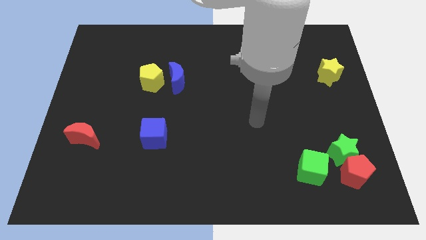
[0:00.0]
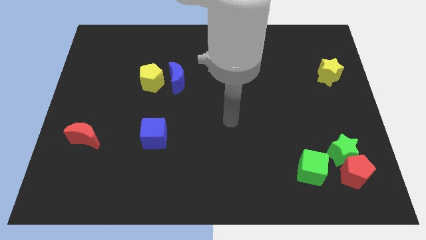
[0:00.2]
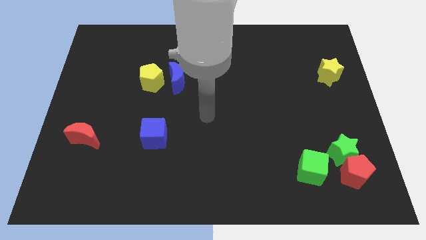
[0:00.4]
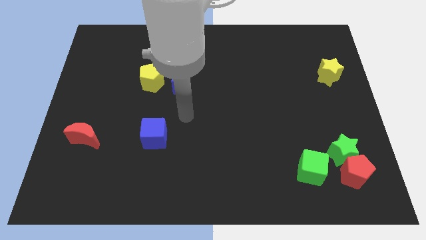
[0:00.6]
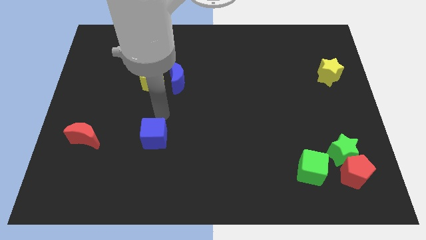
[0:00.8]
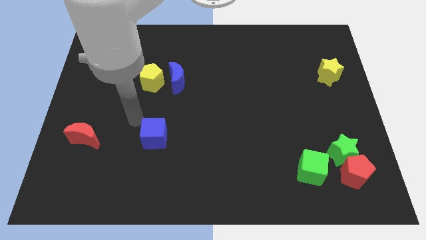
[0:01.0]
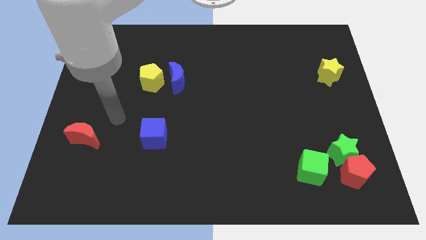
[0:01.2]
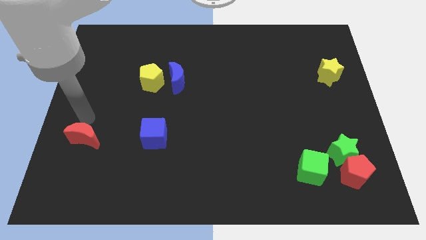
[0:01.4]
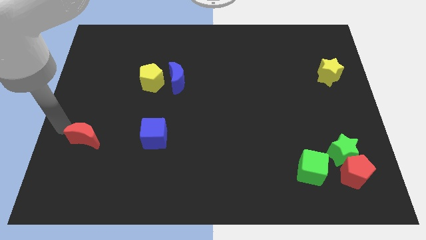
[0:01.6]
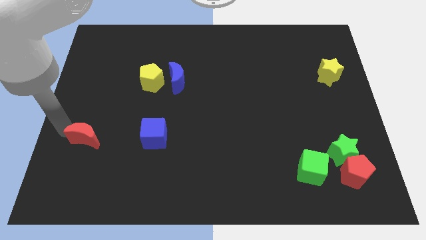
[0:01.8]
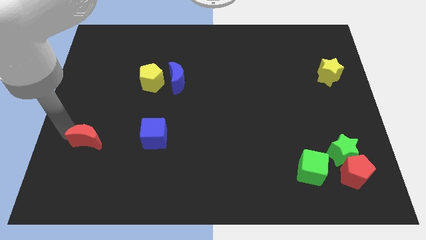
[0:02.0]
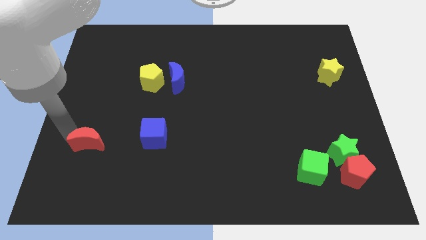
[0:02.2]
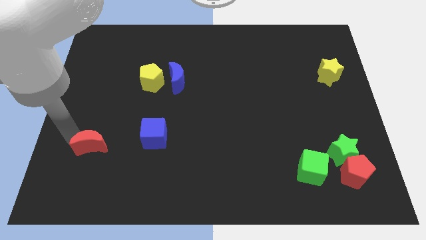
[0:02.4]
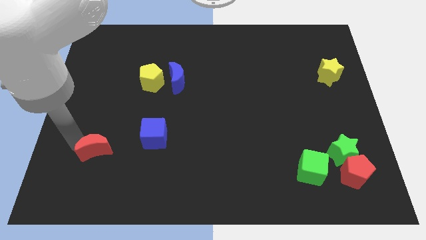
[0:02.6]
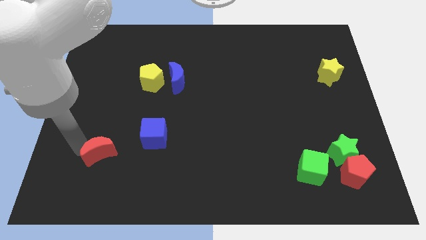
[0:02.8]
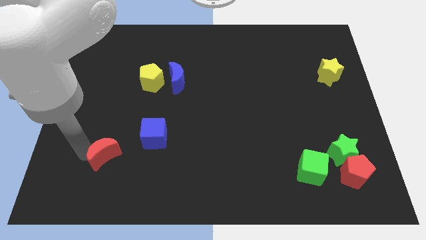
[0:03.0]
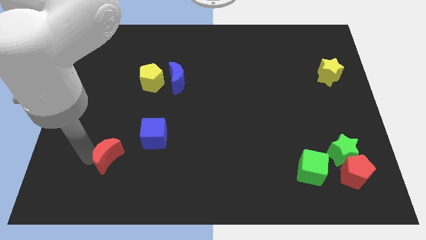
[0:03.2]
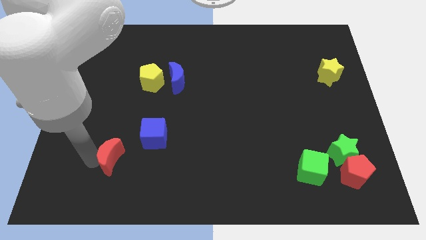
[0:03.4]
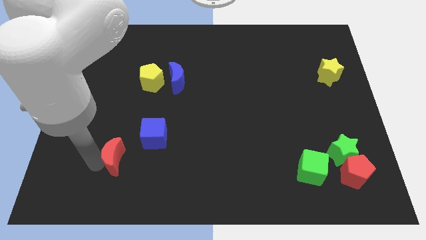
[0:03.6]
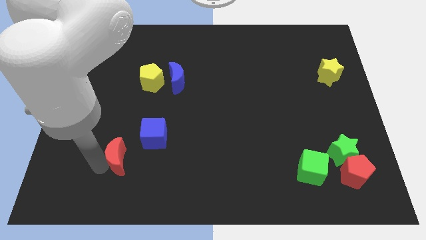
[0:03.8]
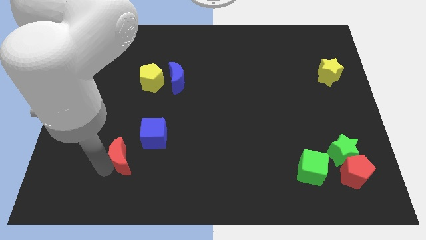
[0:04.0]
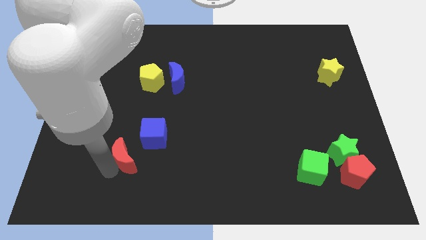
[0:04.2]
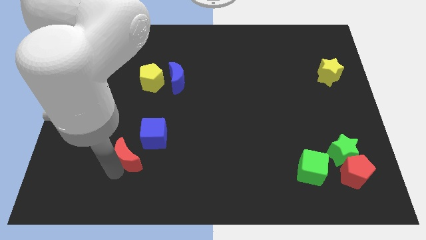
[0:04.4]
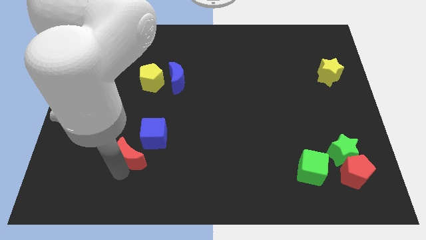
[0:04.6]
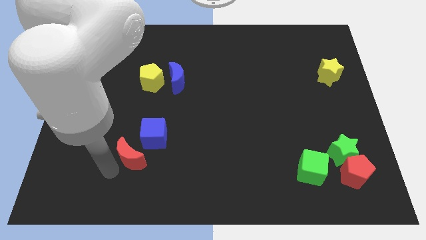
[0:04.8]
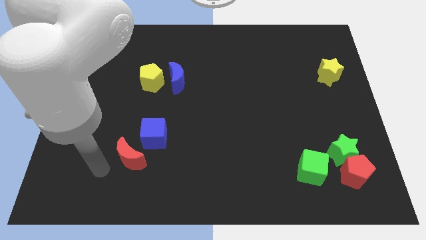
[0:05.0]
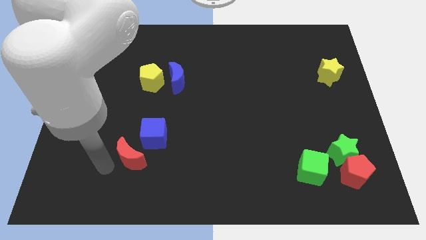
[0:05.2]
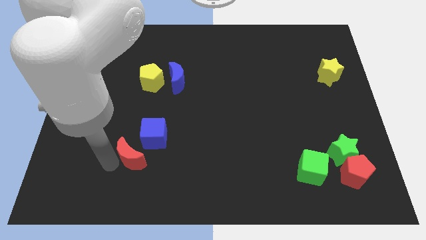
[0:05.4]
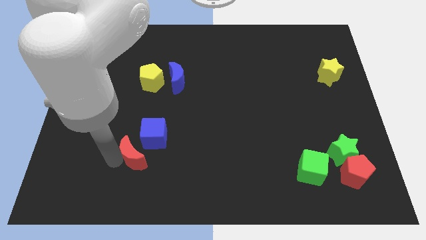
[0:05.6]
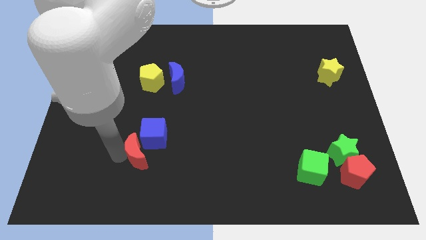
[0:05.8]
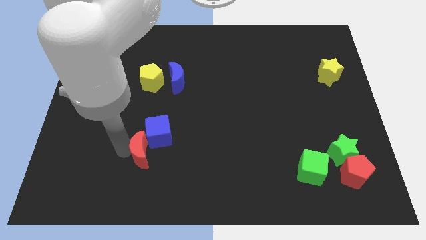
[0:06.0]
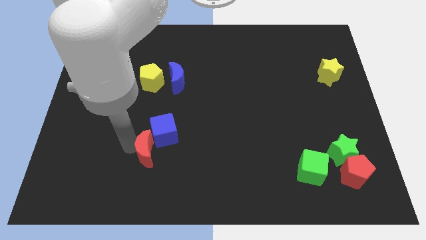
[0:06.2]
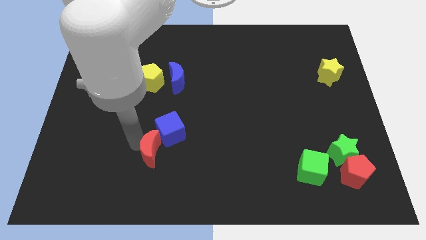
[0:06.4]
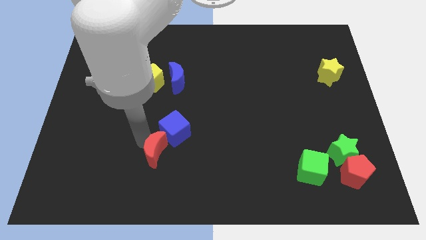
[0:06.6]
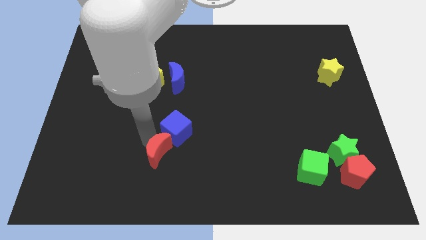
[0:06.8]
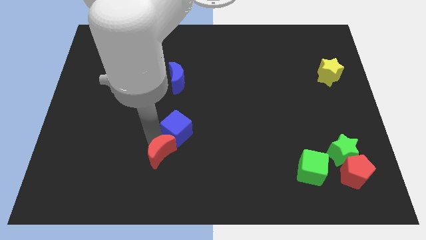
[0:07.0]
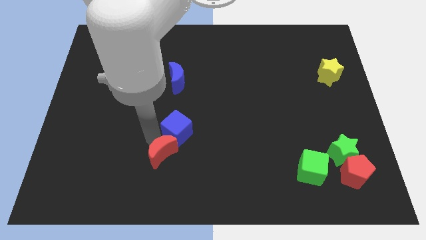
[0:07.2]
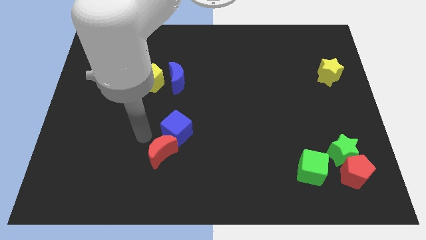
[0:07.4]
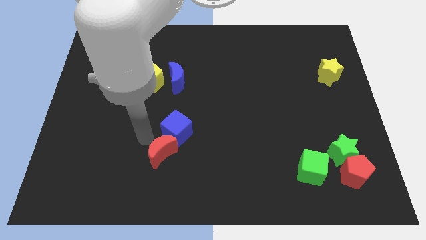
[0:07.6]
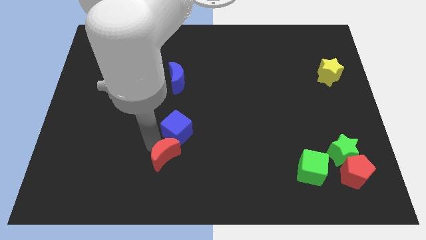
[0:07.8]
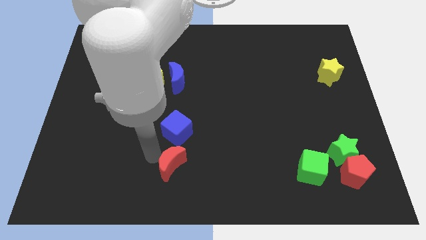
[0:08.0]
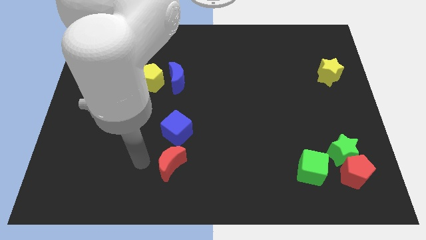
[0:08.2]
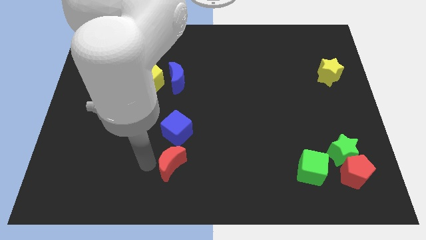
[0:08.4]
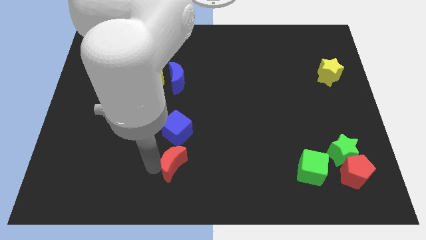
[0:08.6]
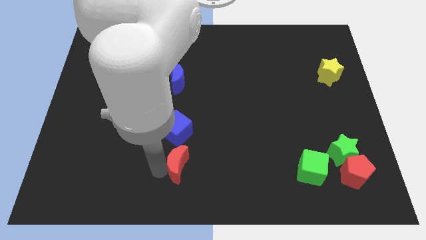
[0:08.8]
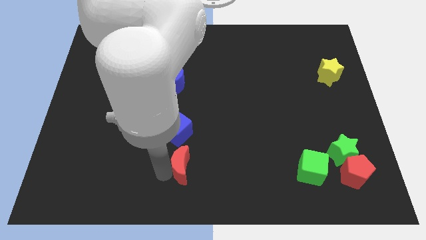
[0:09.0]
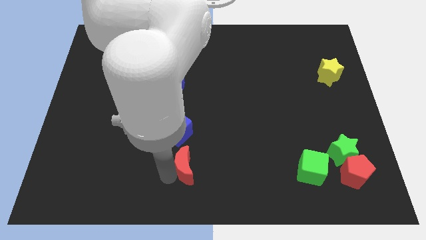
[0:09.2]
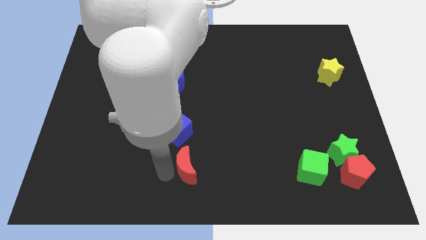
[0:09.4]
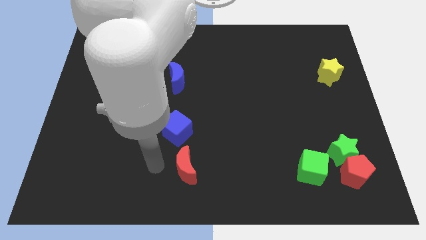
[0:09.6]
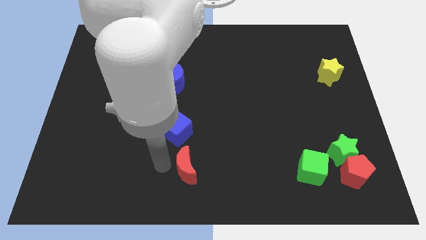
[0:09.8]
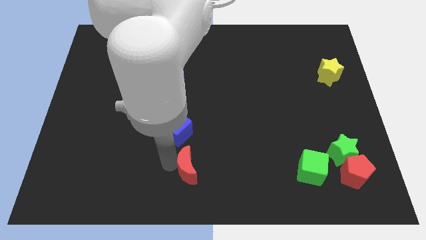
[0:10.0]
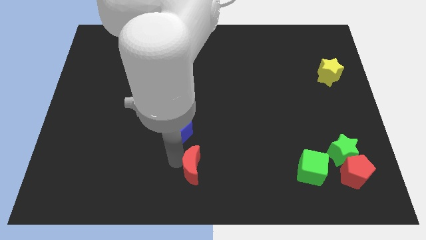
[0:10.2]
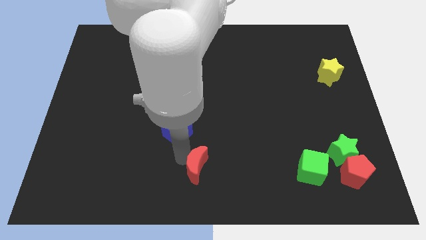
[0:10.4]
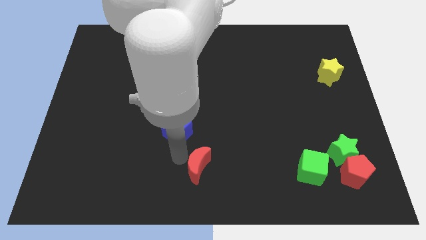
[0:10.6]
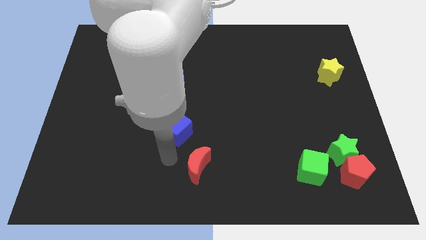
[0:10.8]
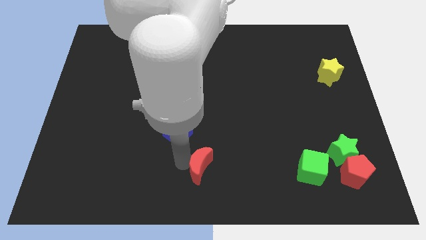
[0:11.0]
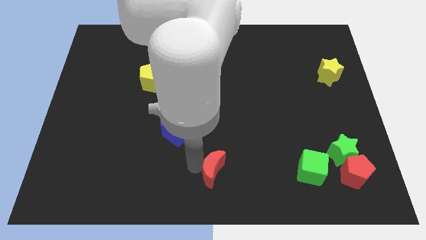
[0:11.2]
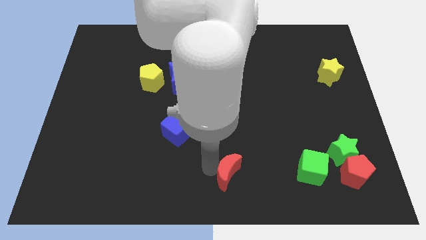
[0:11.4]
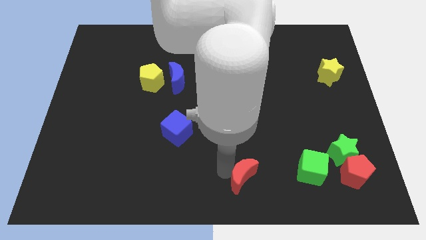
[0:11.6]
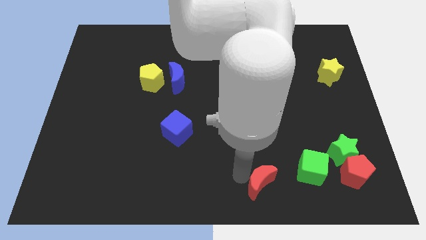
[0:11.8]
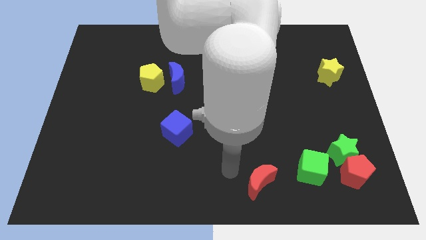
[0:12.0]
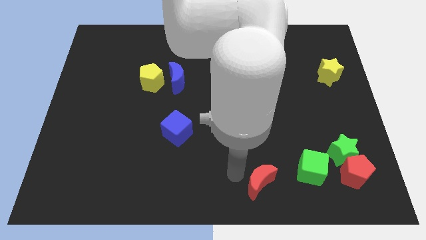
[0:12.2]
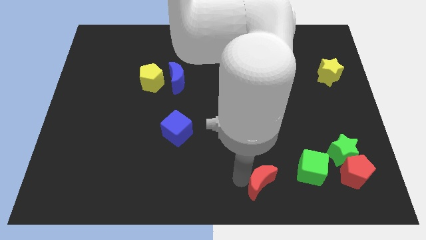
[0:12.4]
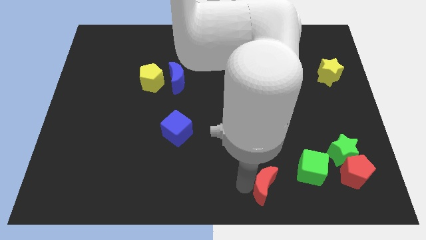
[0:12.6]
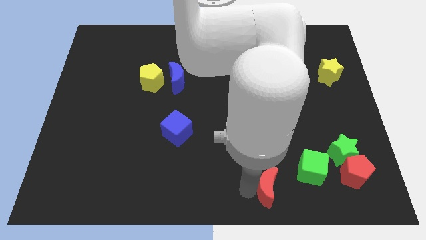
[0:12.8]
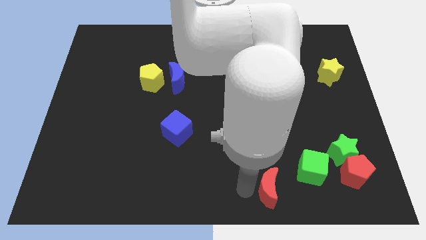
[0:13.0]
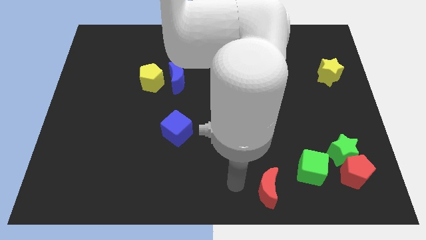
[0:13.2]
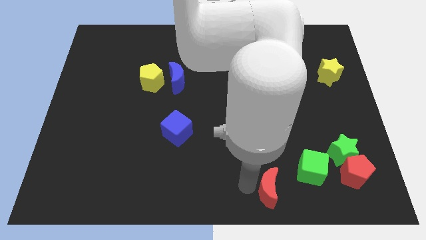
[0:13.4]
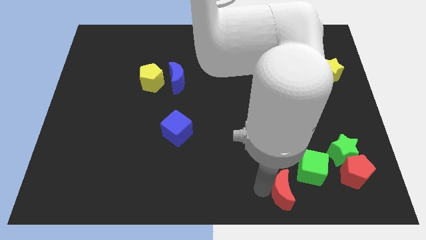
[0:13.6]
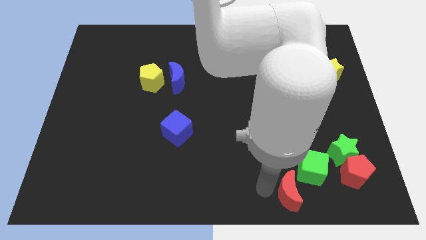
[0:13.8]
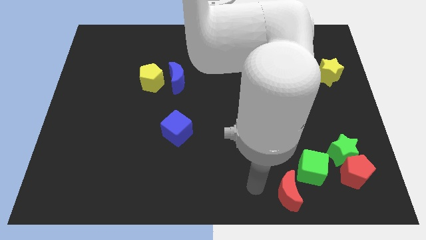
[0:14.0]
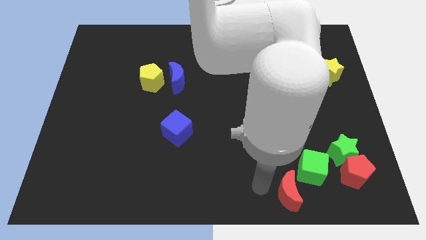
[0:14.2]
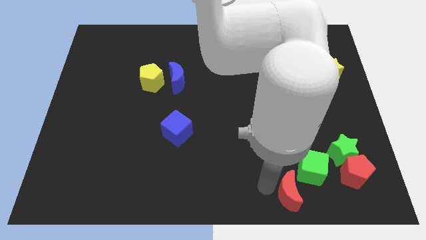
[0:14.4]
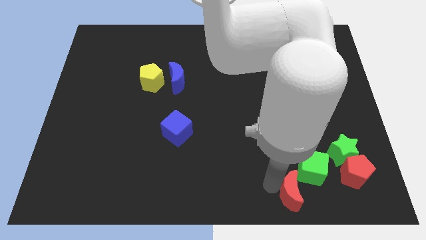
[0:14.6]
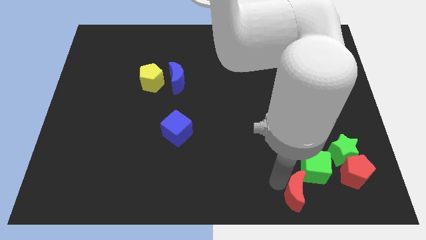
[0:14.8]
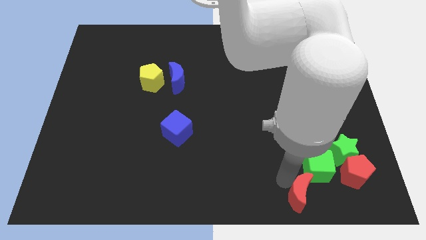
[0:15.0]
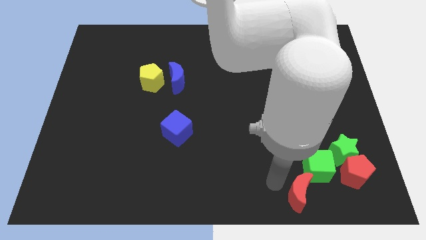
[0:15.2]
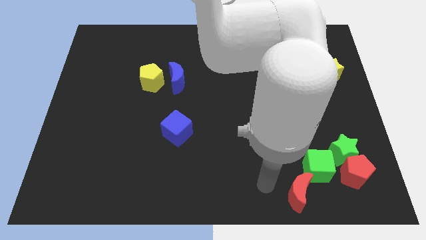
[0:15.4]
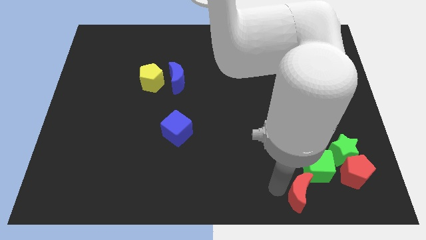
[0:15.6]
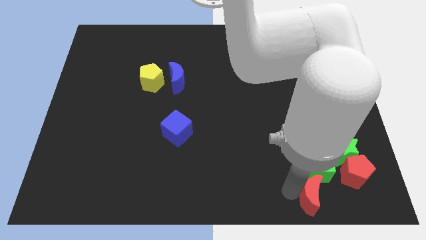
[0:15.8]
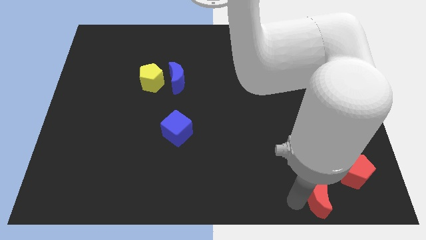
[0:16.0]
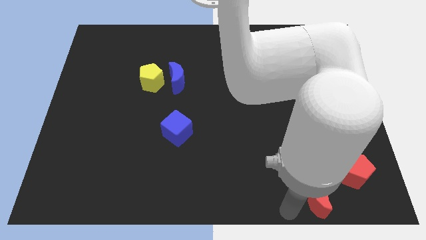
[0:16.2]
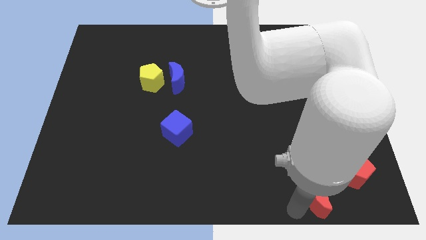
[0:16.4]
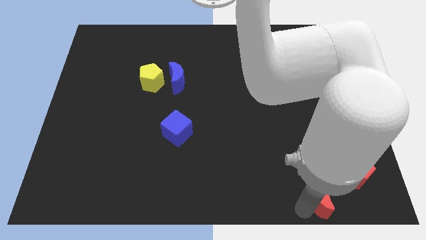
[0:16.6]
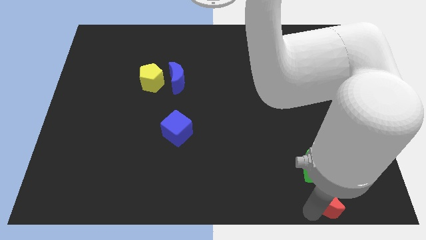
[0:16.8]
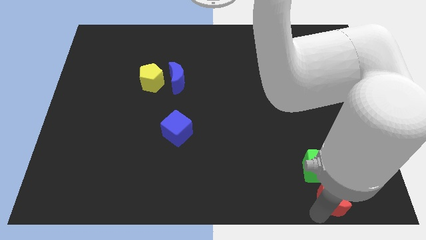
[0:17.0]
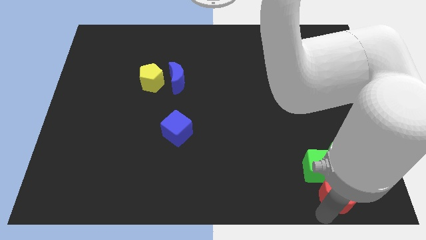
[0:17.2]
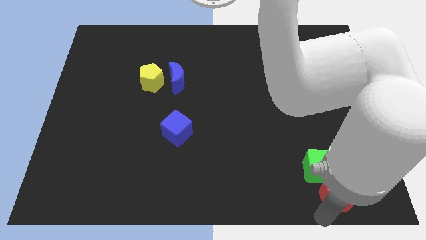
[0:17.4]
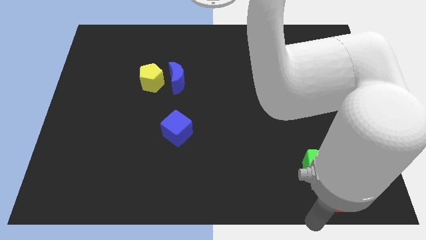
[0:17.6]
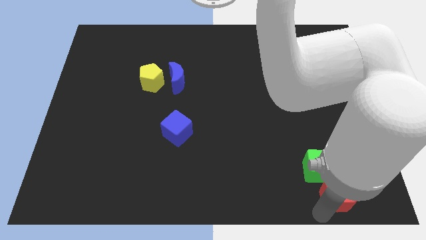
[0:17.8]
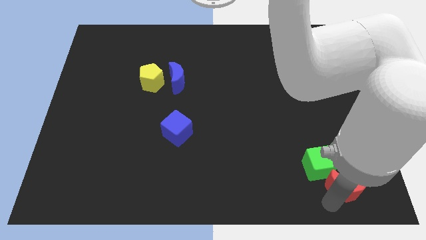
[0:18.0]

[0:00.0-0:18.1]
move the red moon next to the red pentagon
